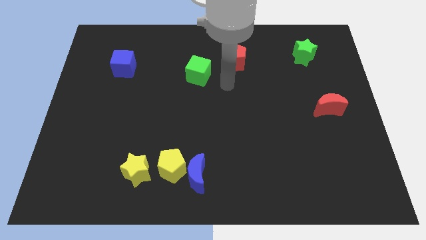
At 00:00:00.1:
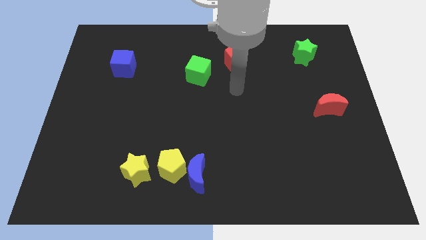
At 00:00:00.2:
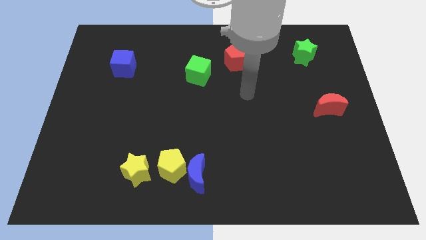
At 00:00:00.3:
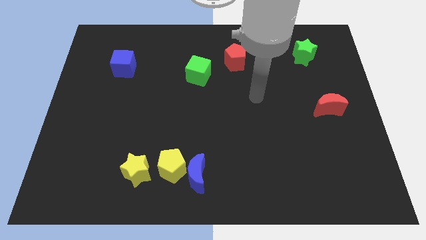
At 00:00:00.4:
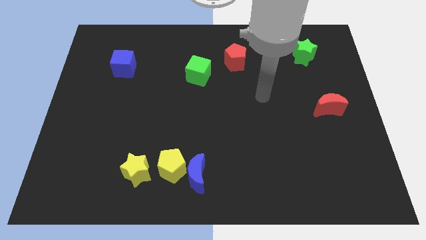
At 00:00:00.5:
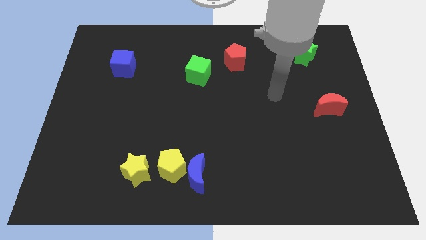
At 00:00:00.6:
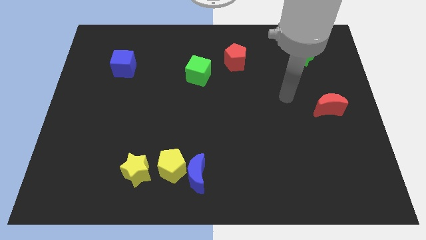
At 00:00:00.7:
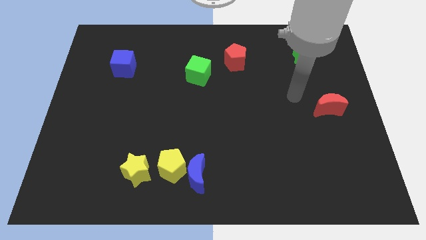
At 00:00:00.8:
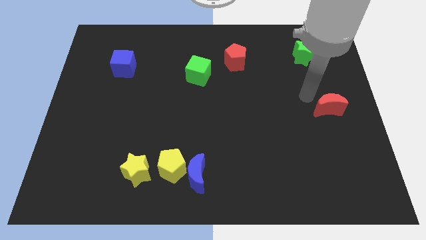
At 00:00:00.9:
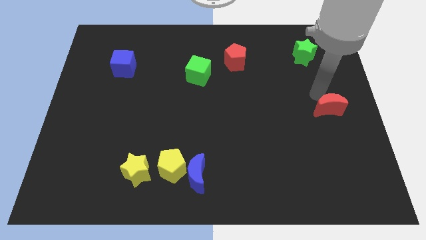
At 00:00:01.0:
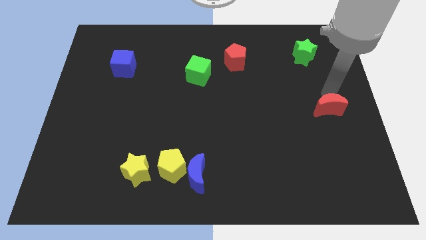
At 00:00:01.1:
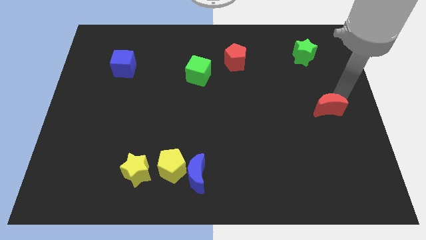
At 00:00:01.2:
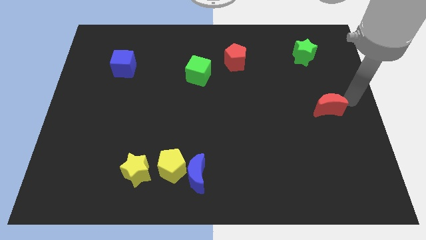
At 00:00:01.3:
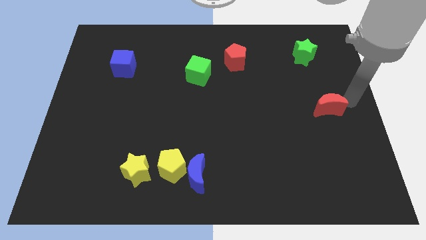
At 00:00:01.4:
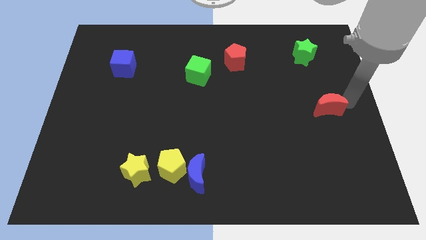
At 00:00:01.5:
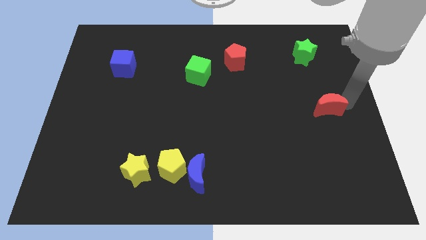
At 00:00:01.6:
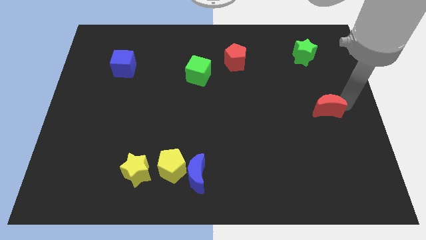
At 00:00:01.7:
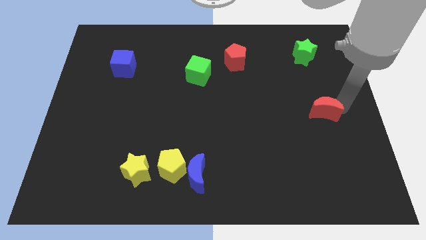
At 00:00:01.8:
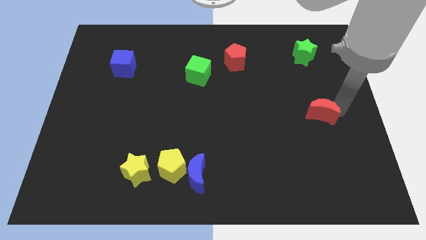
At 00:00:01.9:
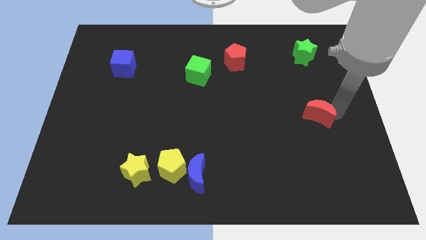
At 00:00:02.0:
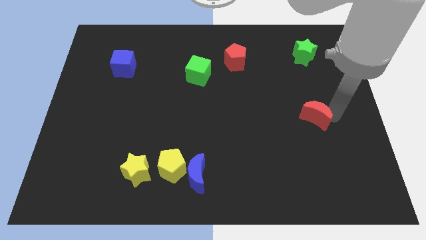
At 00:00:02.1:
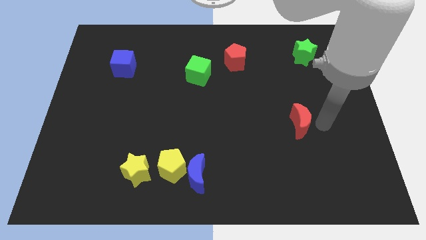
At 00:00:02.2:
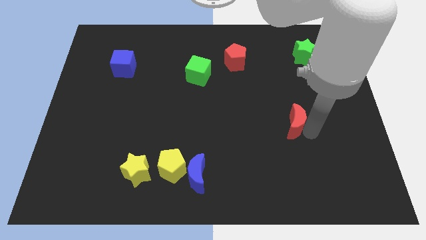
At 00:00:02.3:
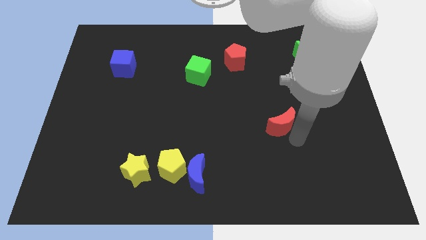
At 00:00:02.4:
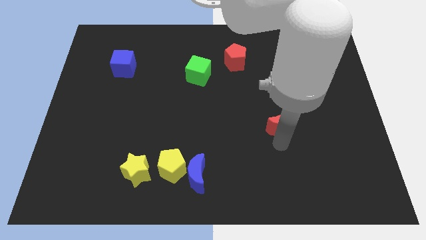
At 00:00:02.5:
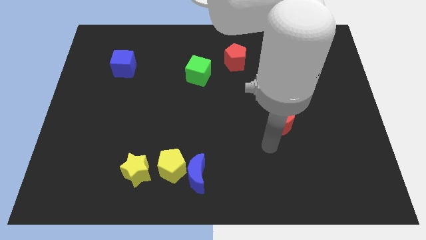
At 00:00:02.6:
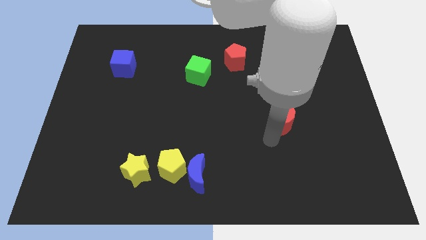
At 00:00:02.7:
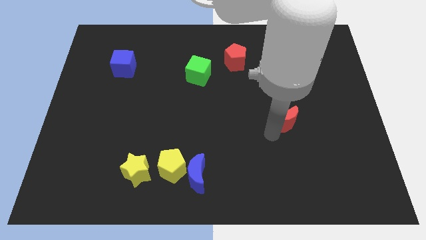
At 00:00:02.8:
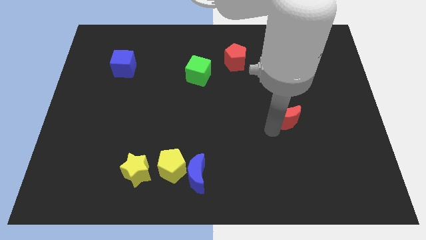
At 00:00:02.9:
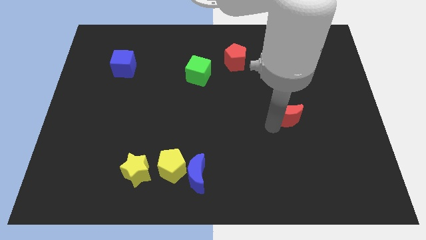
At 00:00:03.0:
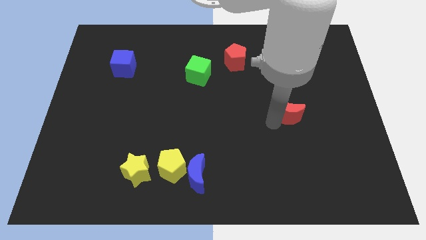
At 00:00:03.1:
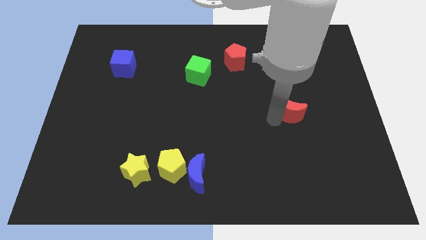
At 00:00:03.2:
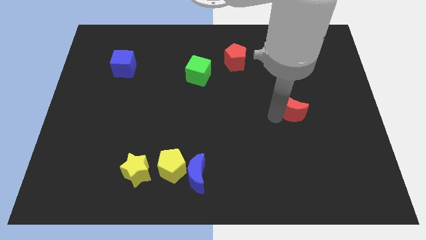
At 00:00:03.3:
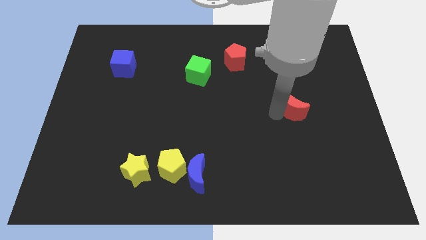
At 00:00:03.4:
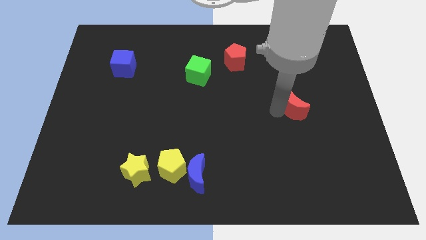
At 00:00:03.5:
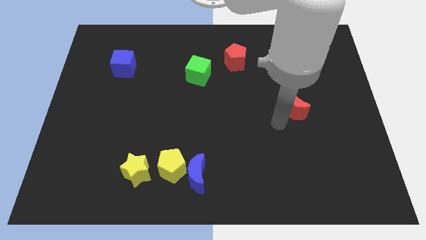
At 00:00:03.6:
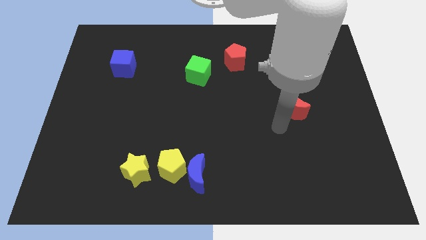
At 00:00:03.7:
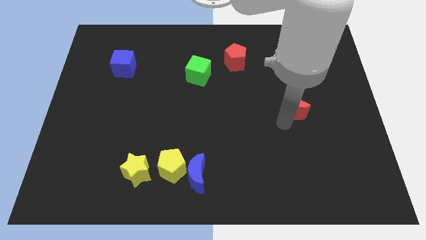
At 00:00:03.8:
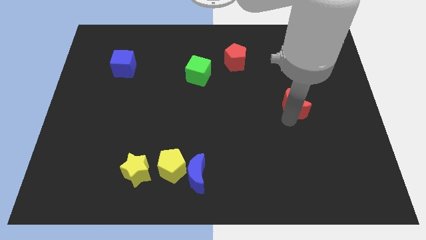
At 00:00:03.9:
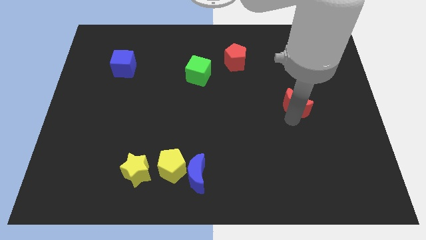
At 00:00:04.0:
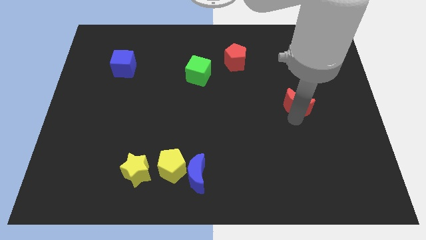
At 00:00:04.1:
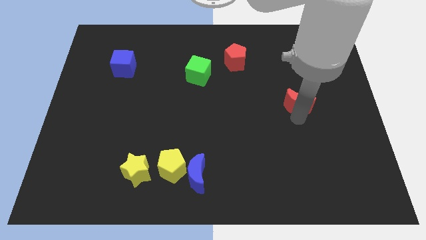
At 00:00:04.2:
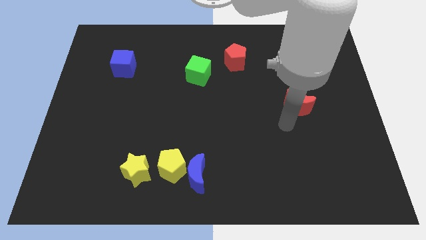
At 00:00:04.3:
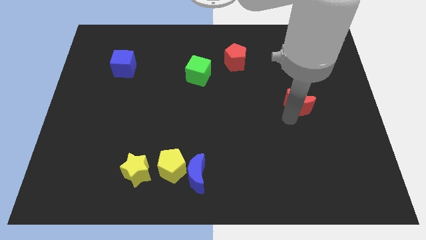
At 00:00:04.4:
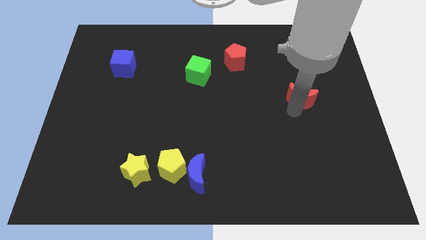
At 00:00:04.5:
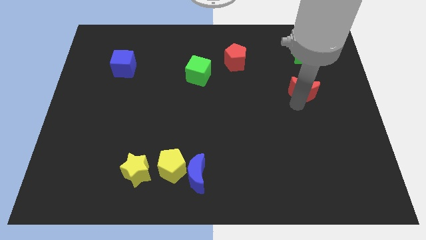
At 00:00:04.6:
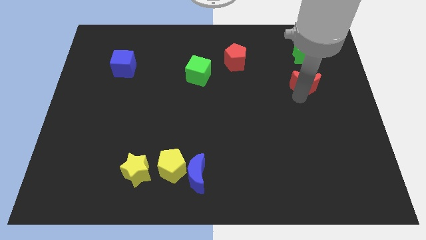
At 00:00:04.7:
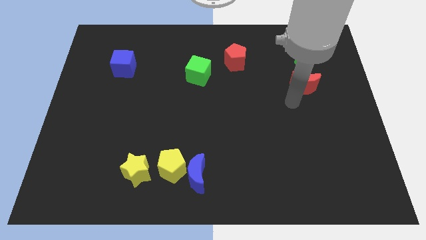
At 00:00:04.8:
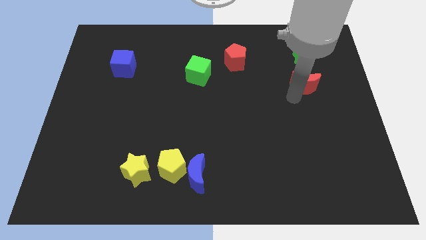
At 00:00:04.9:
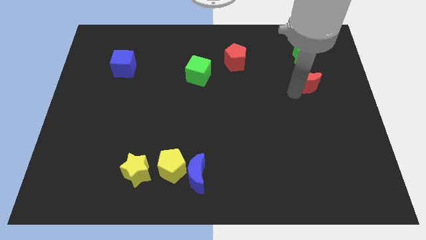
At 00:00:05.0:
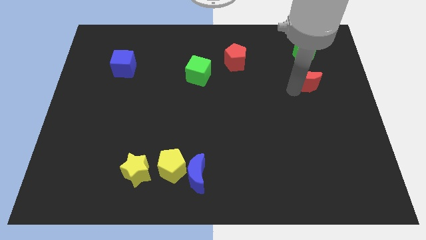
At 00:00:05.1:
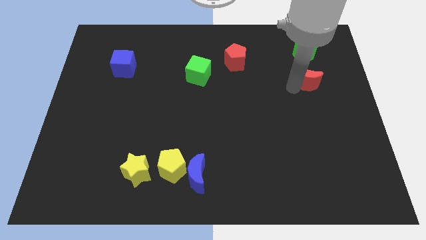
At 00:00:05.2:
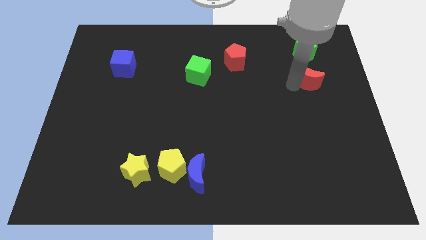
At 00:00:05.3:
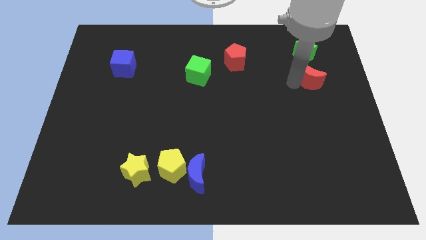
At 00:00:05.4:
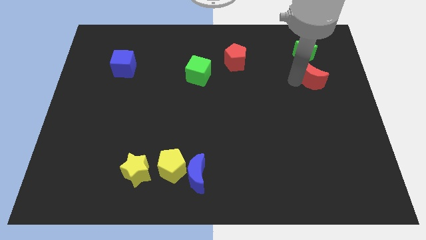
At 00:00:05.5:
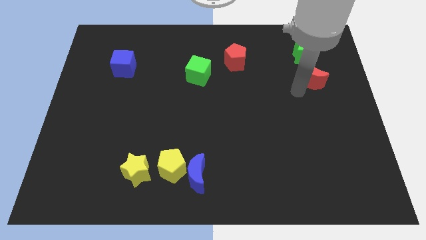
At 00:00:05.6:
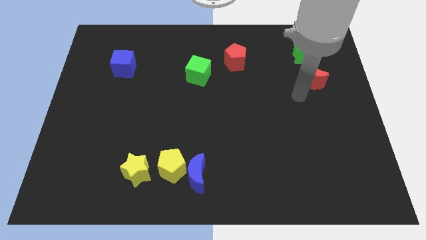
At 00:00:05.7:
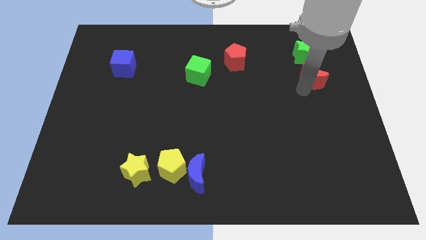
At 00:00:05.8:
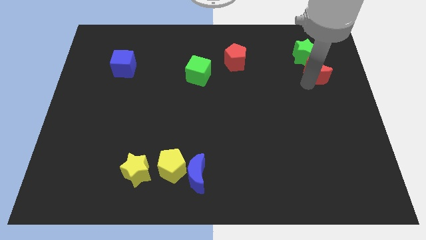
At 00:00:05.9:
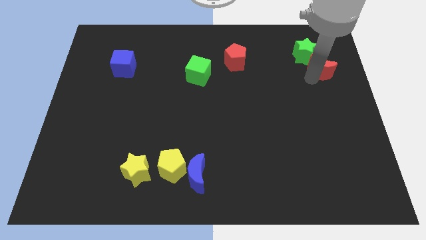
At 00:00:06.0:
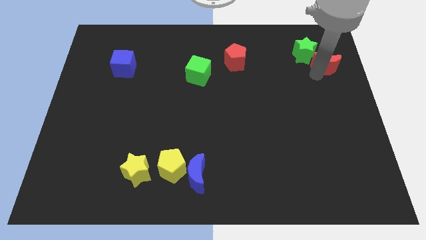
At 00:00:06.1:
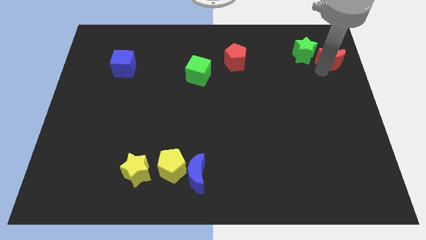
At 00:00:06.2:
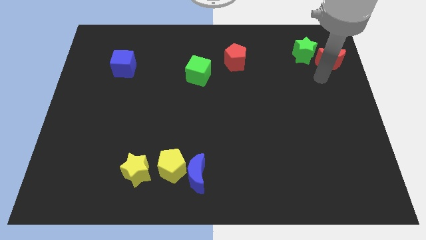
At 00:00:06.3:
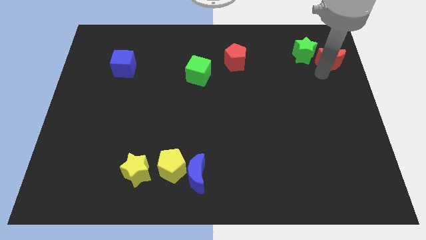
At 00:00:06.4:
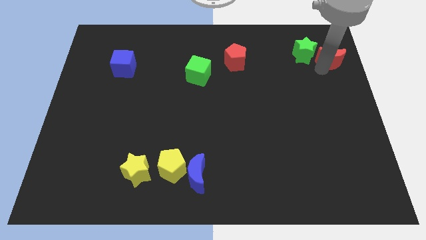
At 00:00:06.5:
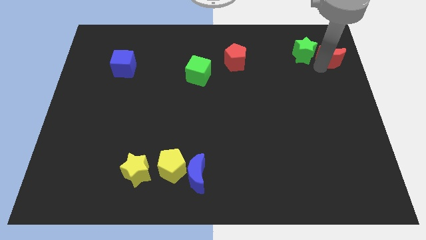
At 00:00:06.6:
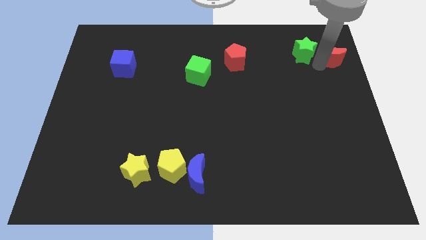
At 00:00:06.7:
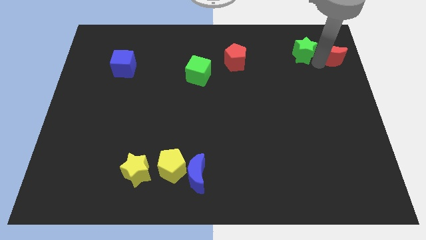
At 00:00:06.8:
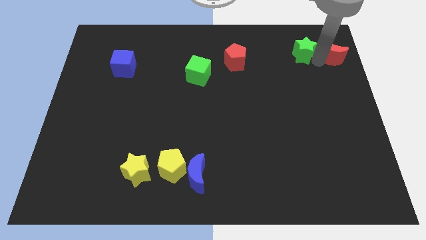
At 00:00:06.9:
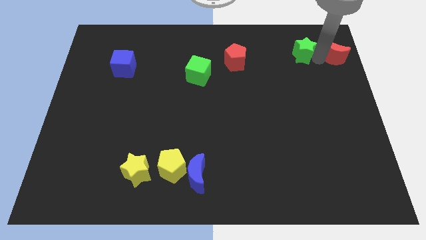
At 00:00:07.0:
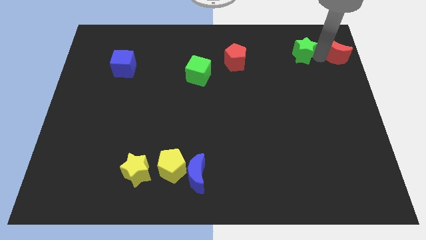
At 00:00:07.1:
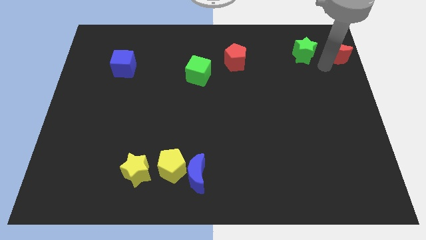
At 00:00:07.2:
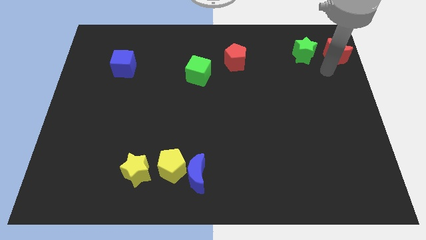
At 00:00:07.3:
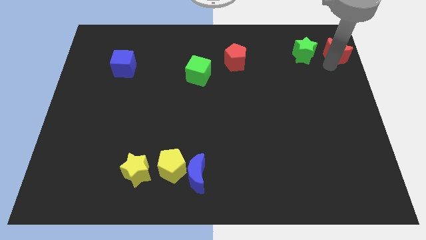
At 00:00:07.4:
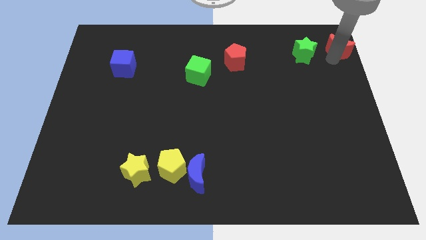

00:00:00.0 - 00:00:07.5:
slide the red moon to the top right
